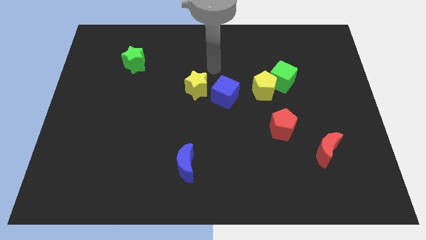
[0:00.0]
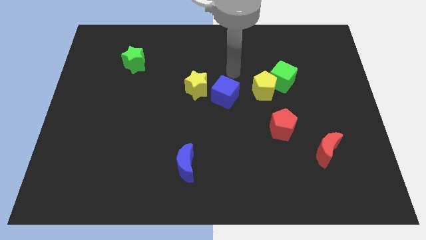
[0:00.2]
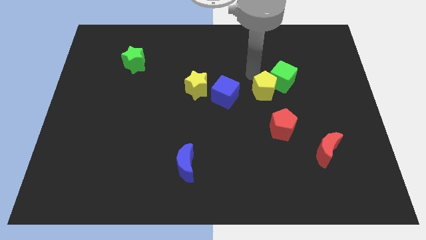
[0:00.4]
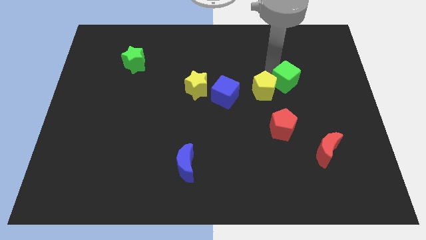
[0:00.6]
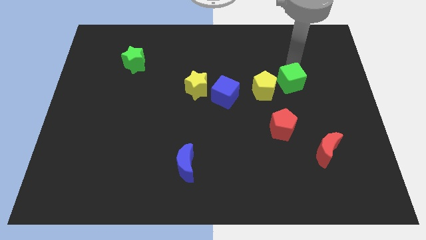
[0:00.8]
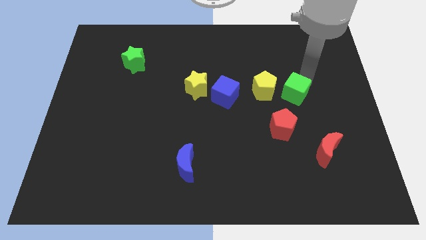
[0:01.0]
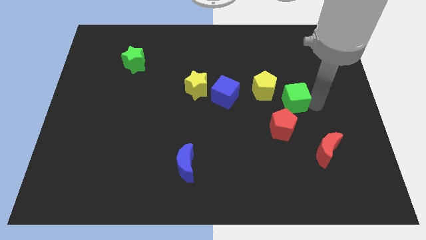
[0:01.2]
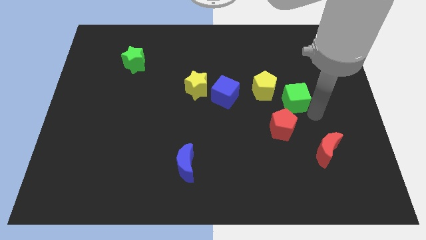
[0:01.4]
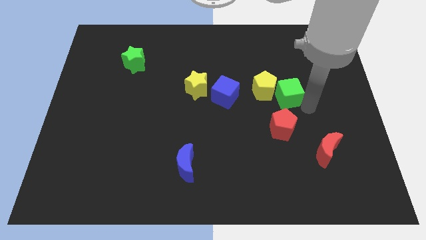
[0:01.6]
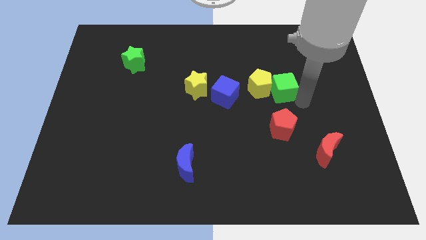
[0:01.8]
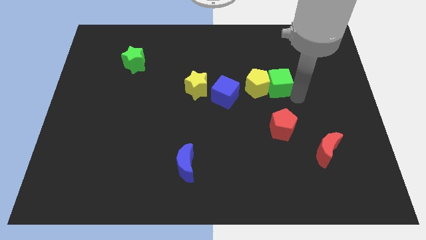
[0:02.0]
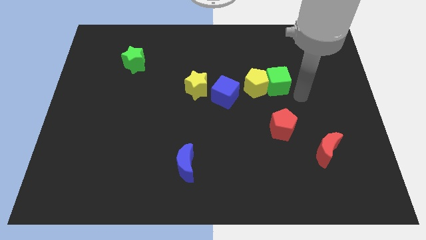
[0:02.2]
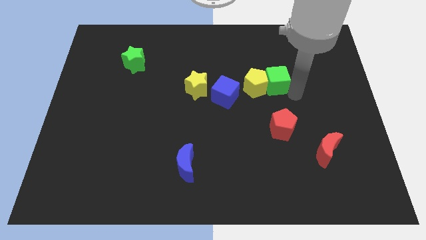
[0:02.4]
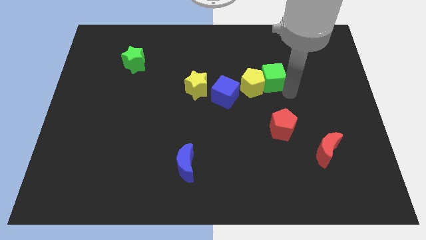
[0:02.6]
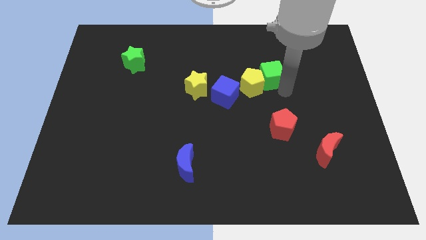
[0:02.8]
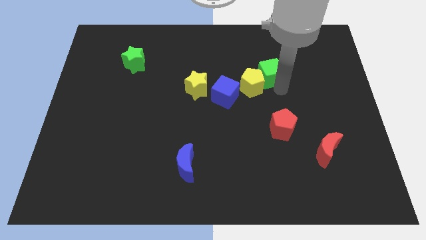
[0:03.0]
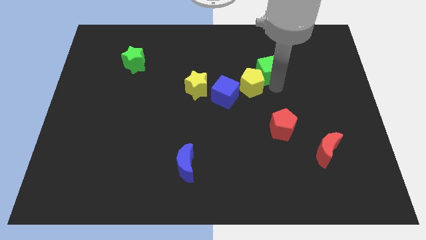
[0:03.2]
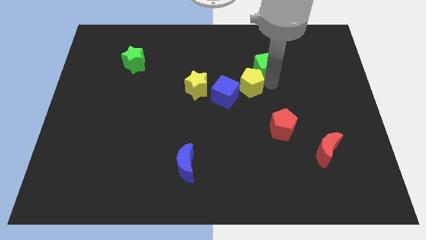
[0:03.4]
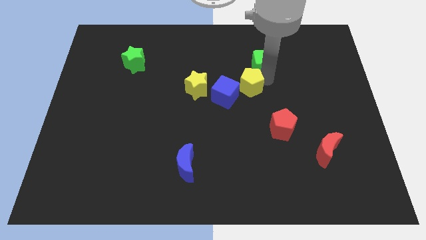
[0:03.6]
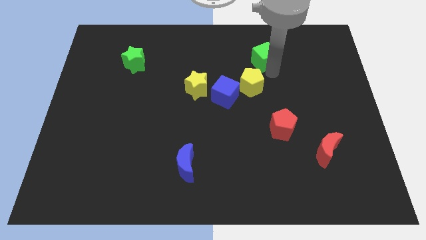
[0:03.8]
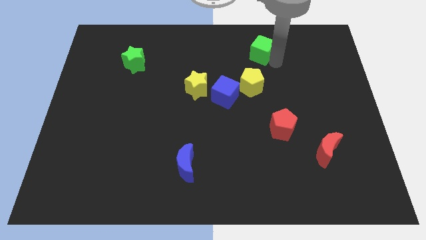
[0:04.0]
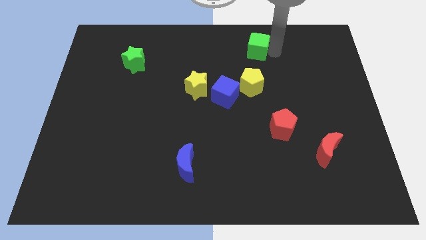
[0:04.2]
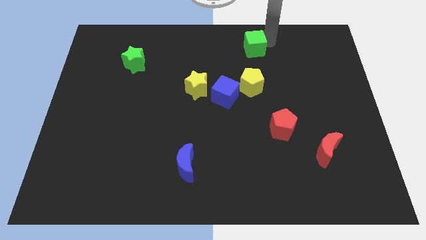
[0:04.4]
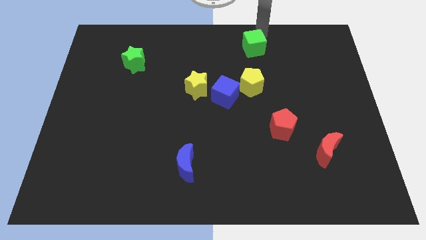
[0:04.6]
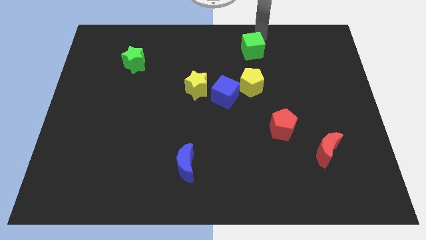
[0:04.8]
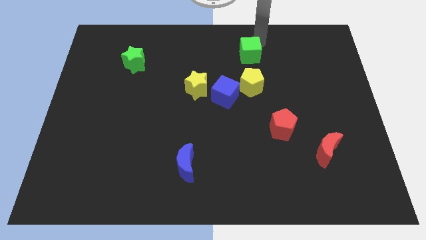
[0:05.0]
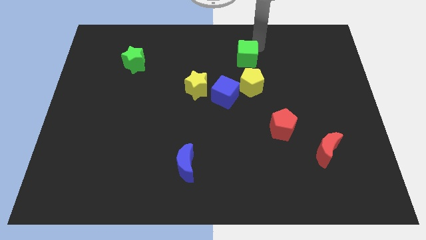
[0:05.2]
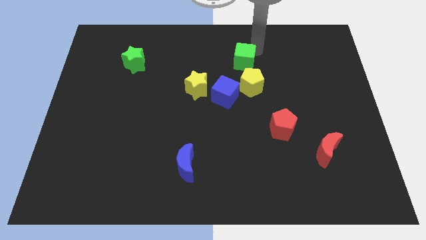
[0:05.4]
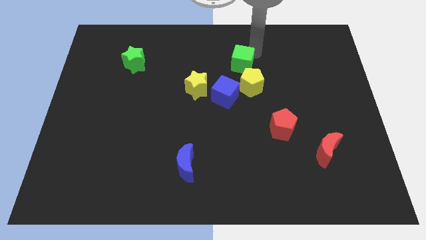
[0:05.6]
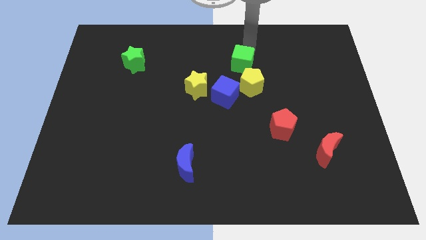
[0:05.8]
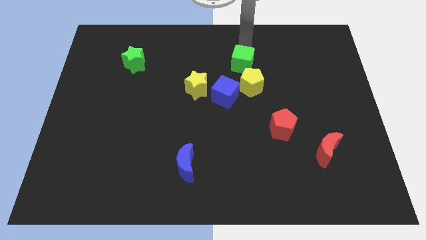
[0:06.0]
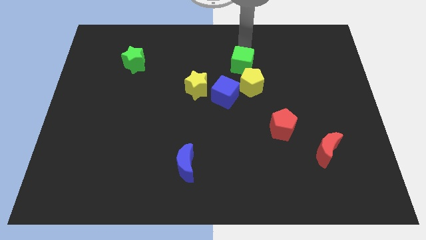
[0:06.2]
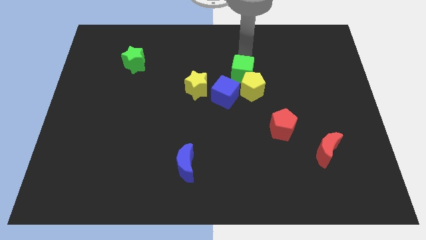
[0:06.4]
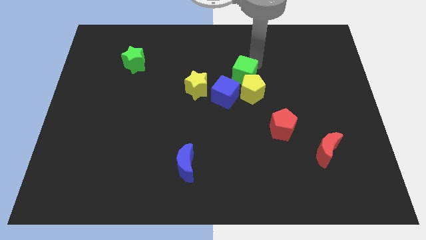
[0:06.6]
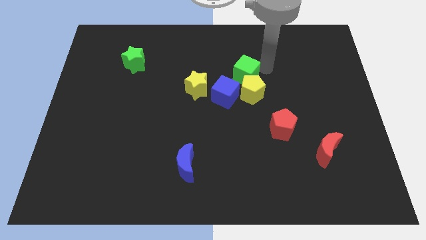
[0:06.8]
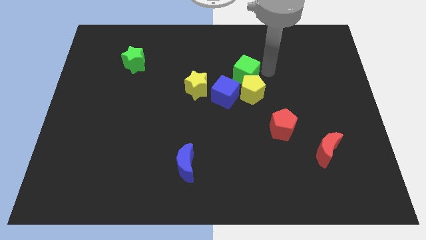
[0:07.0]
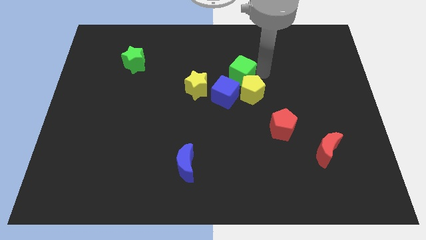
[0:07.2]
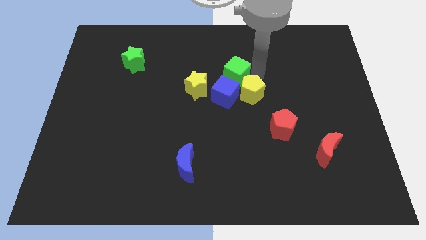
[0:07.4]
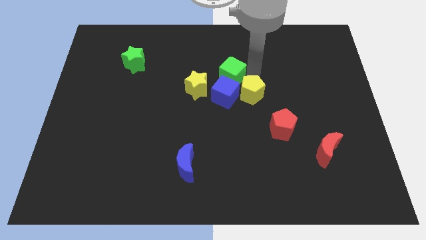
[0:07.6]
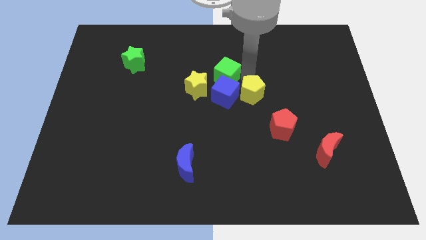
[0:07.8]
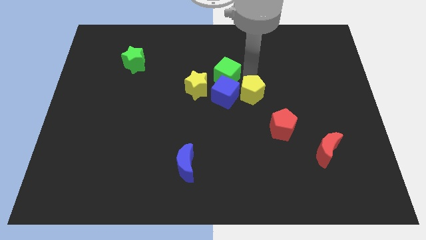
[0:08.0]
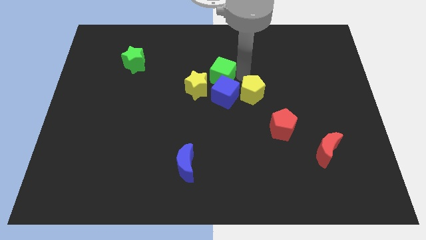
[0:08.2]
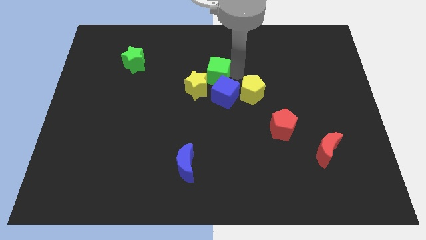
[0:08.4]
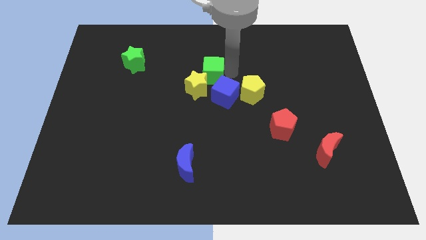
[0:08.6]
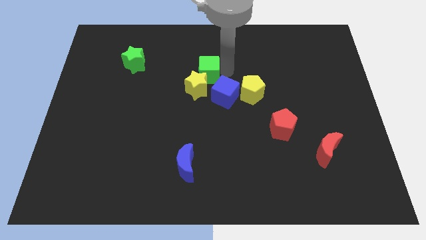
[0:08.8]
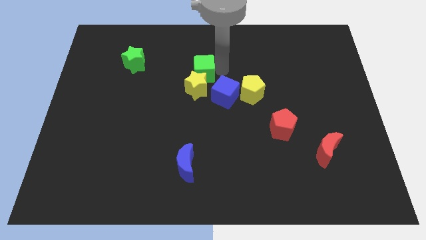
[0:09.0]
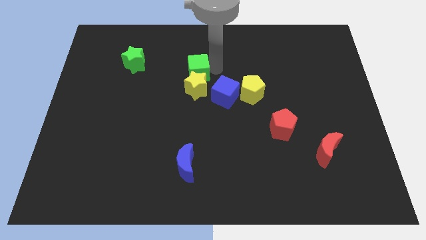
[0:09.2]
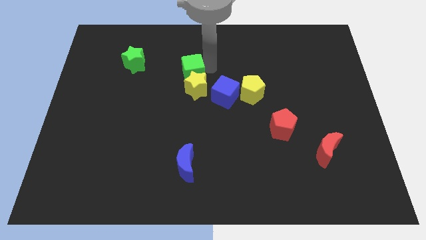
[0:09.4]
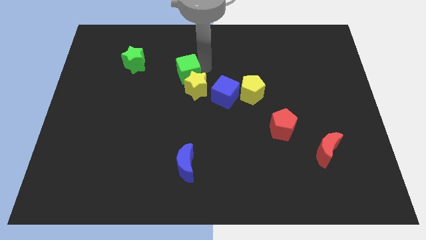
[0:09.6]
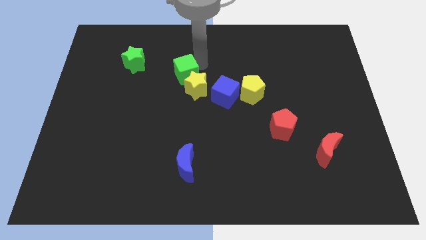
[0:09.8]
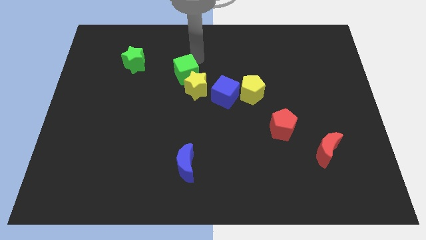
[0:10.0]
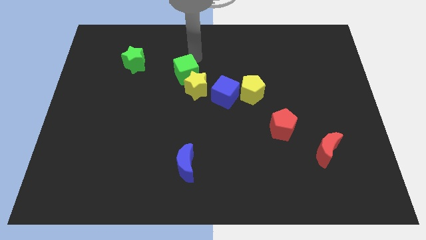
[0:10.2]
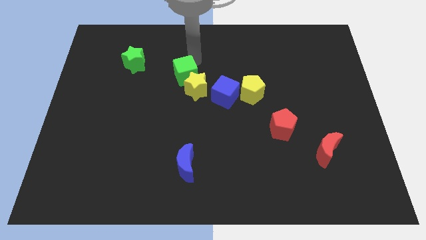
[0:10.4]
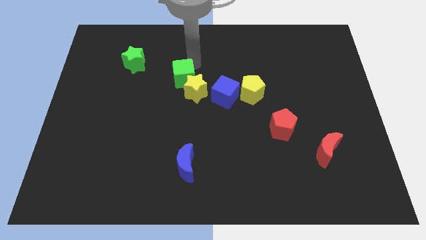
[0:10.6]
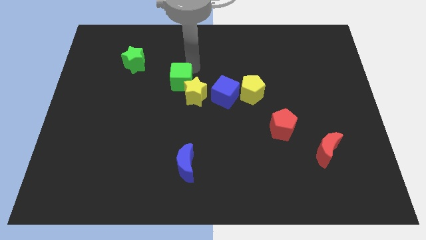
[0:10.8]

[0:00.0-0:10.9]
push the green cube to the left side of the blue cube

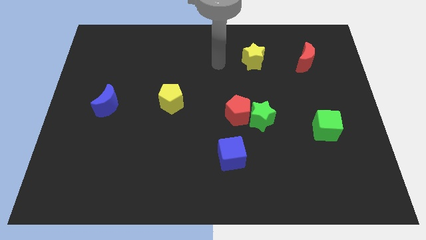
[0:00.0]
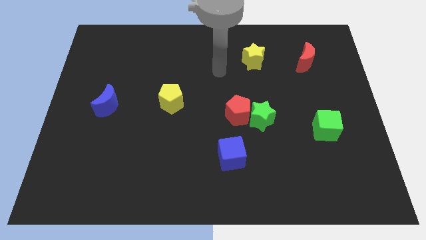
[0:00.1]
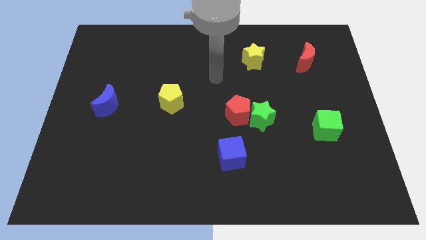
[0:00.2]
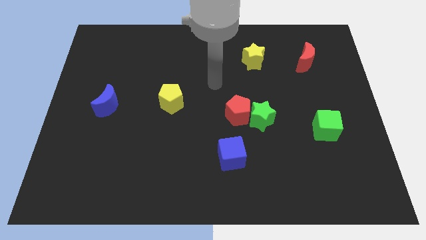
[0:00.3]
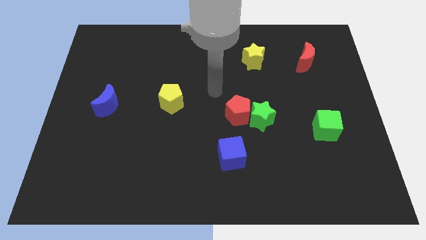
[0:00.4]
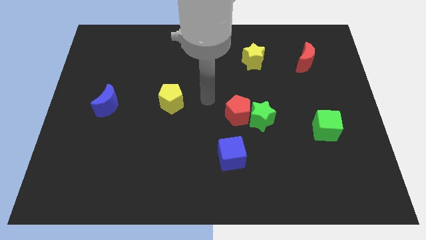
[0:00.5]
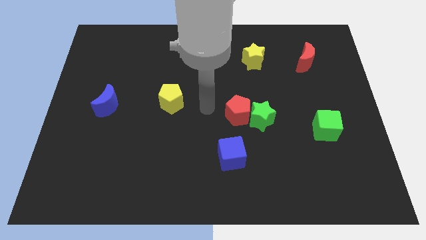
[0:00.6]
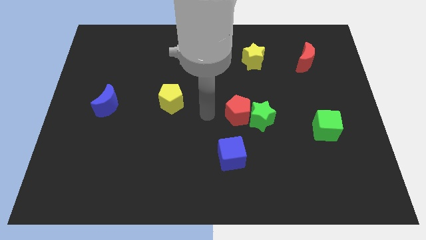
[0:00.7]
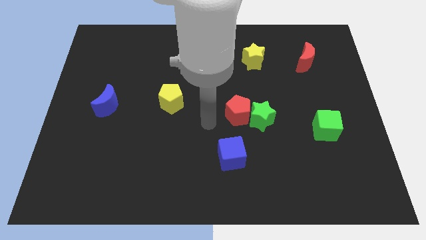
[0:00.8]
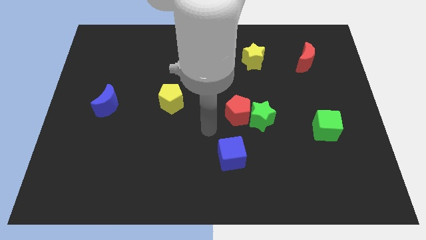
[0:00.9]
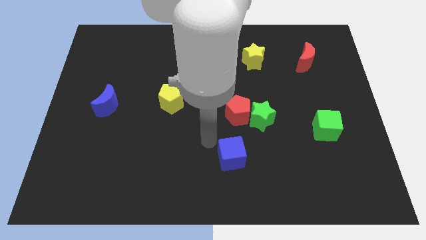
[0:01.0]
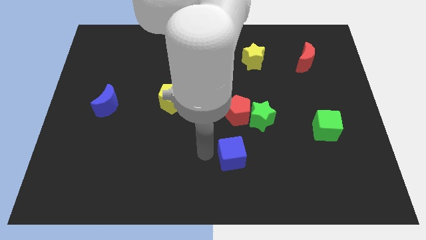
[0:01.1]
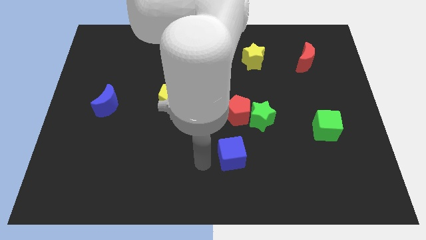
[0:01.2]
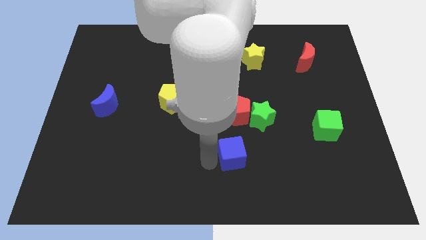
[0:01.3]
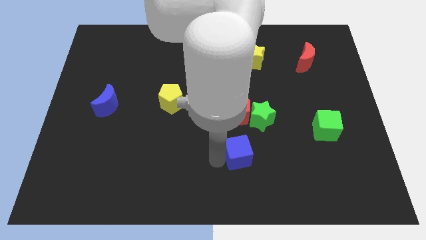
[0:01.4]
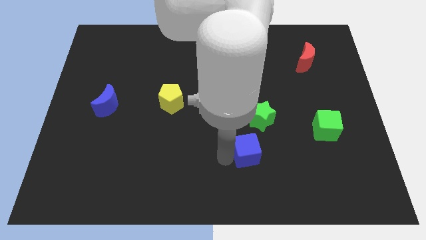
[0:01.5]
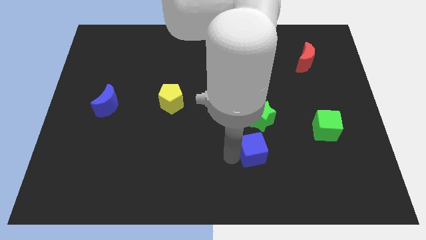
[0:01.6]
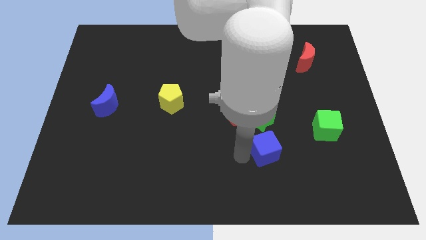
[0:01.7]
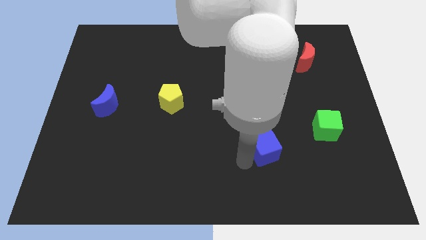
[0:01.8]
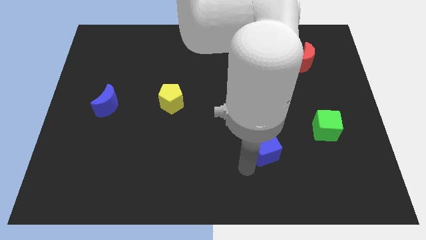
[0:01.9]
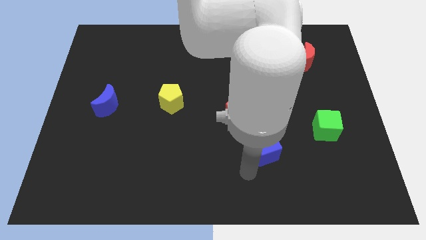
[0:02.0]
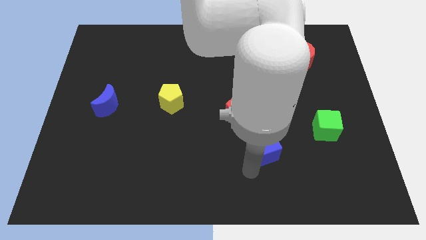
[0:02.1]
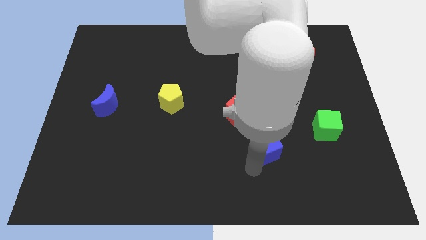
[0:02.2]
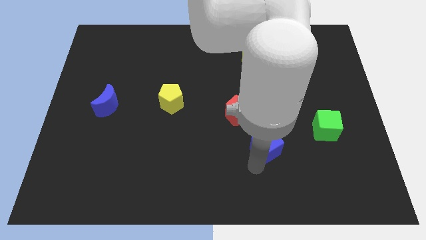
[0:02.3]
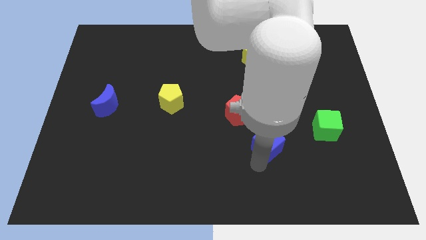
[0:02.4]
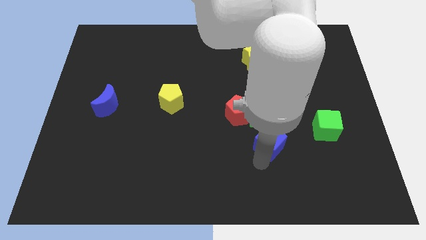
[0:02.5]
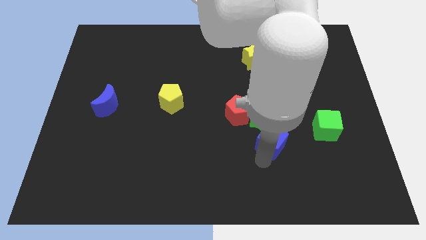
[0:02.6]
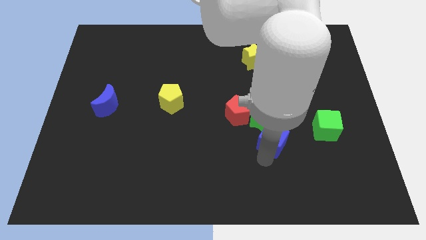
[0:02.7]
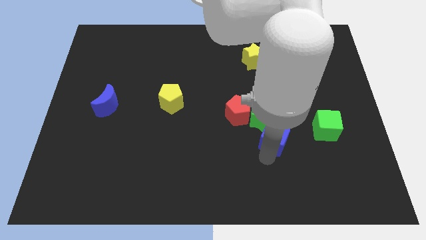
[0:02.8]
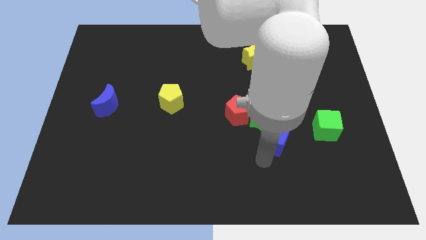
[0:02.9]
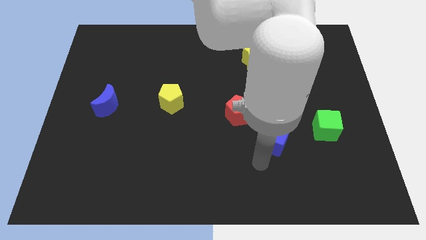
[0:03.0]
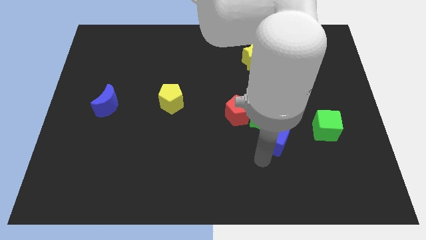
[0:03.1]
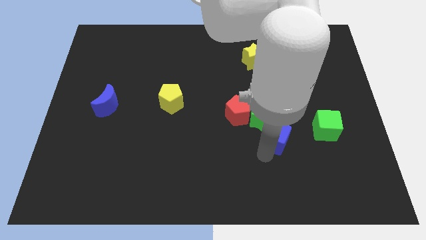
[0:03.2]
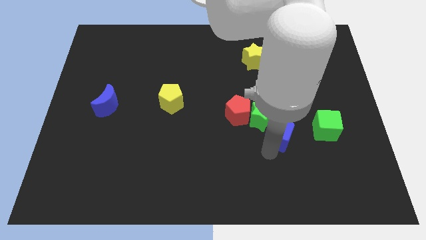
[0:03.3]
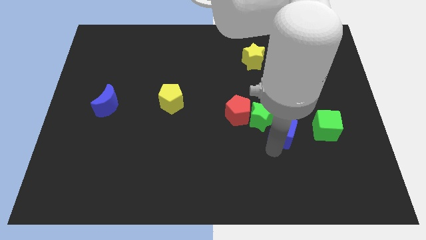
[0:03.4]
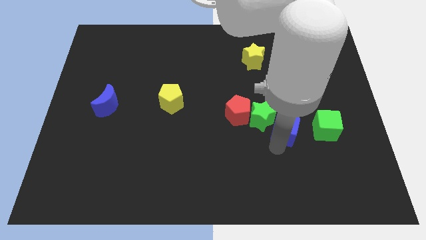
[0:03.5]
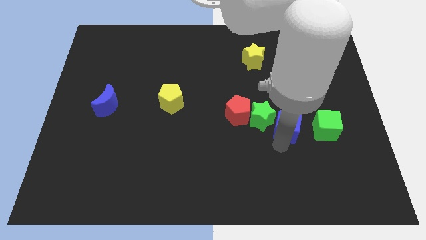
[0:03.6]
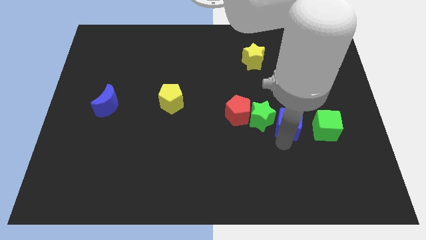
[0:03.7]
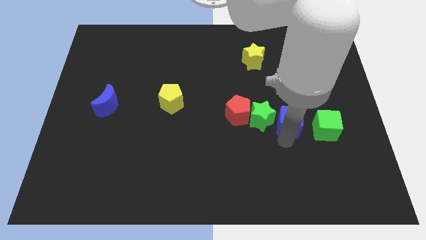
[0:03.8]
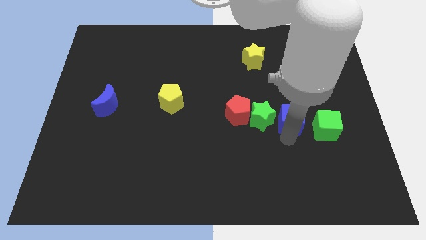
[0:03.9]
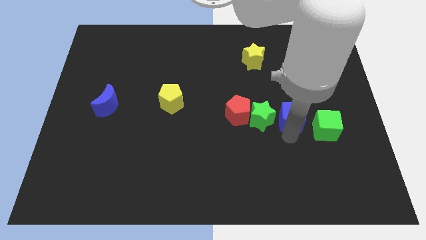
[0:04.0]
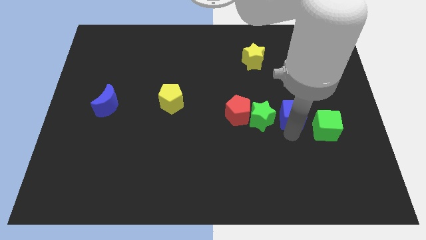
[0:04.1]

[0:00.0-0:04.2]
push the blue cube to the top right of the green star
